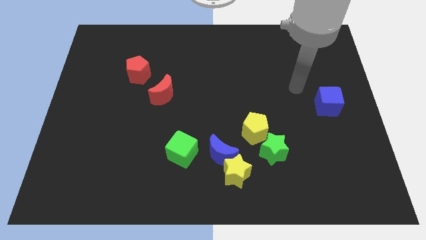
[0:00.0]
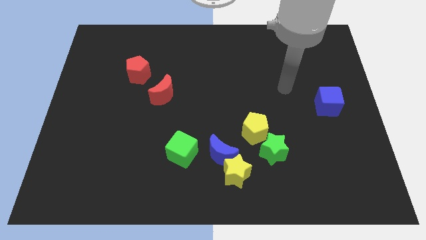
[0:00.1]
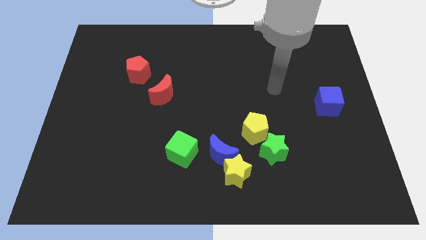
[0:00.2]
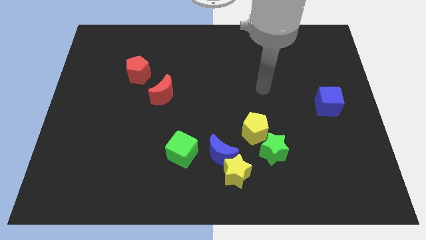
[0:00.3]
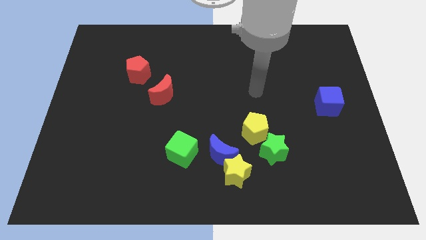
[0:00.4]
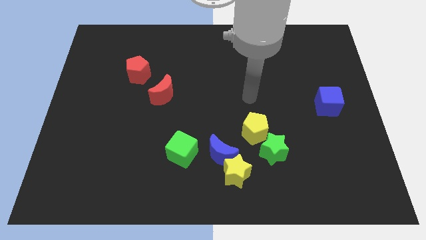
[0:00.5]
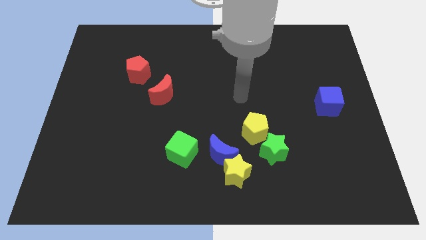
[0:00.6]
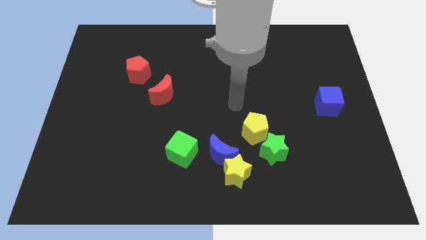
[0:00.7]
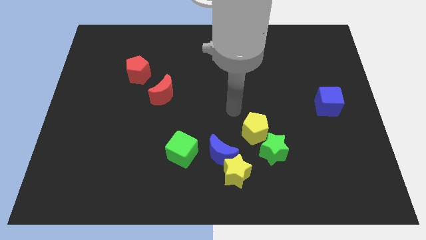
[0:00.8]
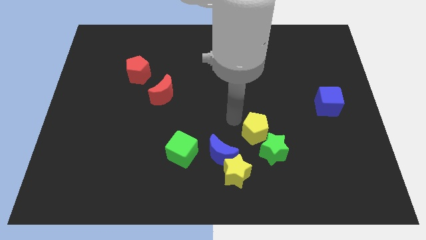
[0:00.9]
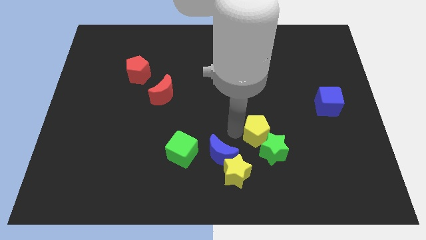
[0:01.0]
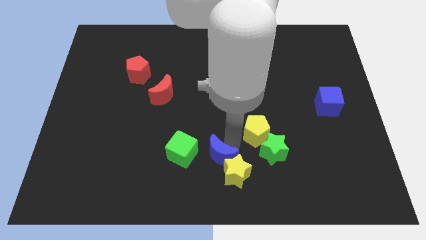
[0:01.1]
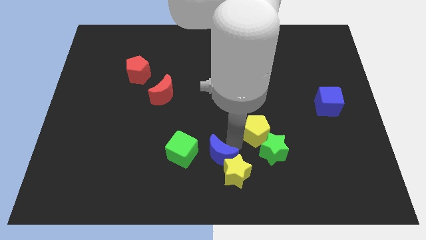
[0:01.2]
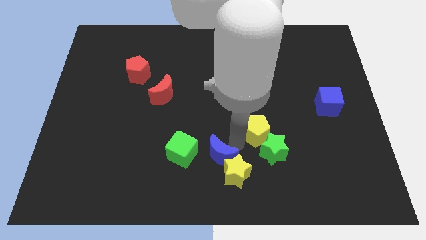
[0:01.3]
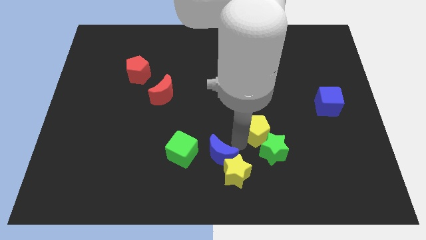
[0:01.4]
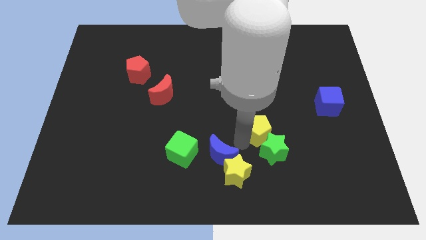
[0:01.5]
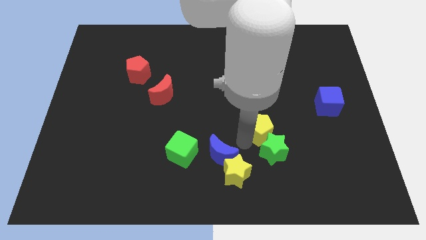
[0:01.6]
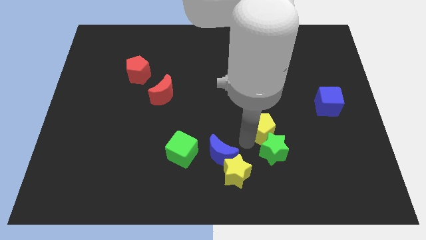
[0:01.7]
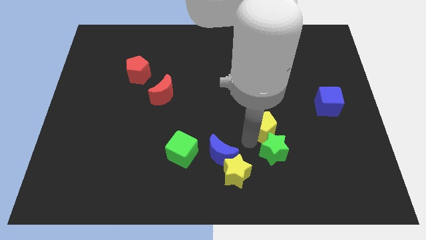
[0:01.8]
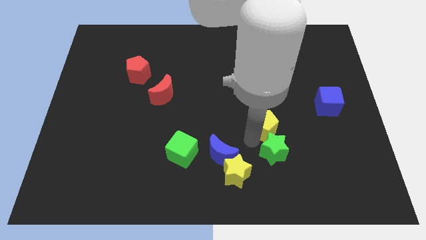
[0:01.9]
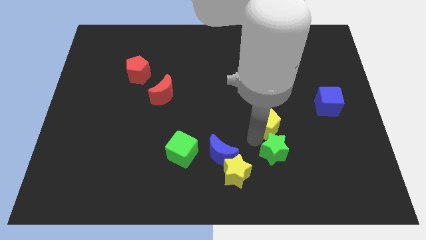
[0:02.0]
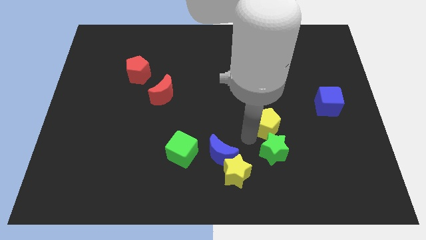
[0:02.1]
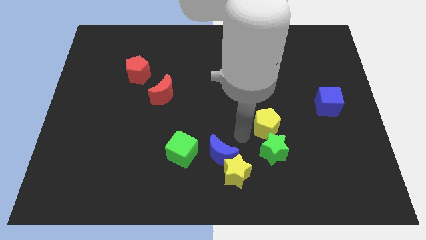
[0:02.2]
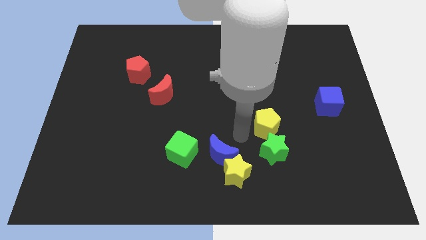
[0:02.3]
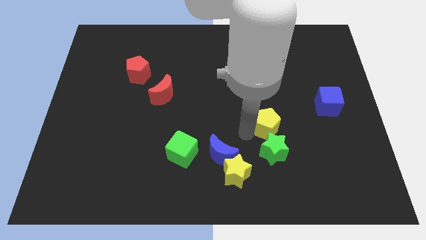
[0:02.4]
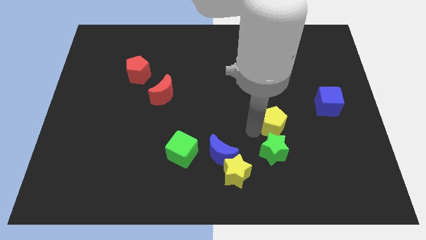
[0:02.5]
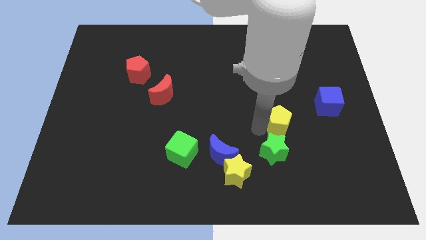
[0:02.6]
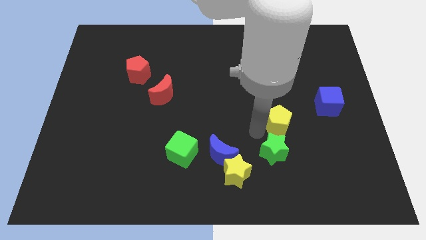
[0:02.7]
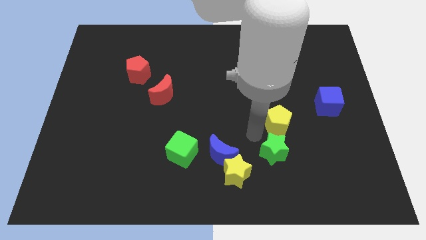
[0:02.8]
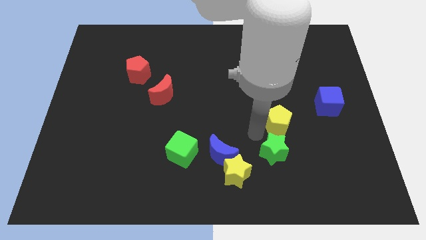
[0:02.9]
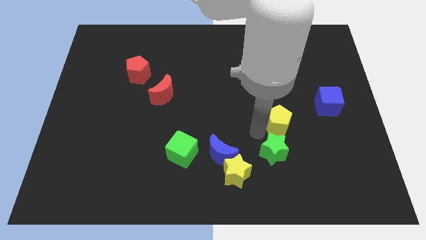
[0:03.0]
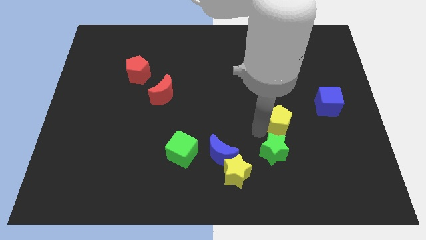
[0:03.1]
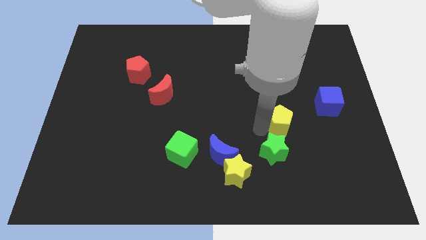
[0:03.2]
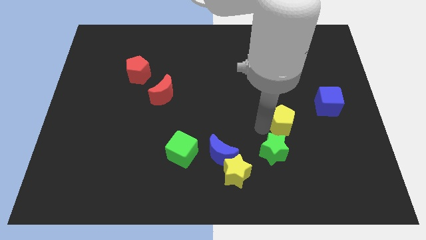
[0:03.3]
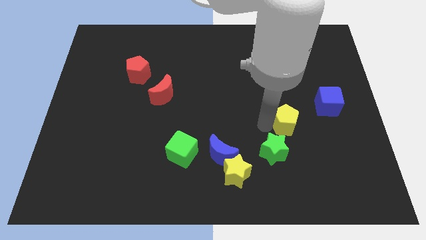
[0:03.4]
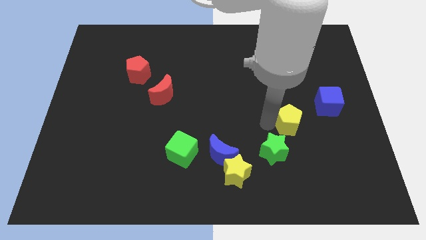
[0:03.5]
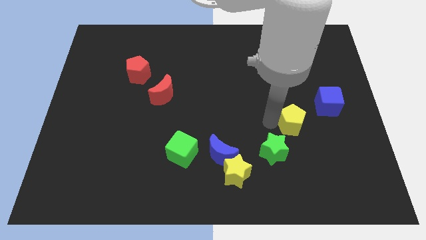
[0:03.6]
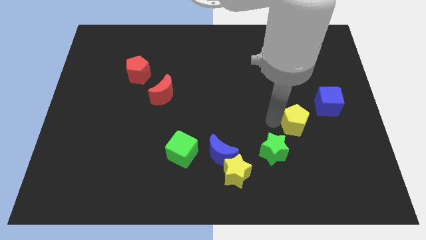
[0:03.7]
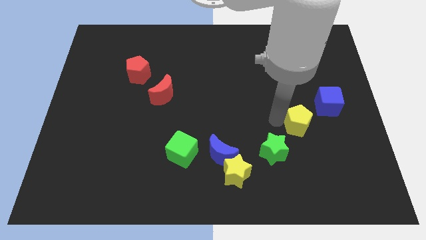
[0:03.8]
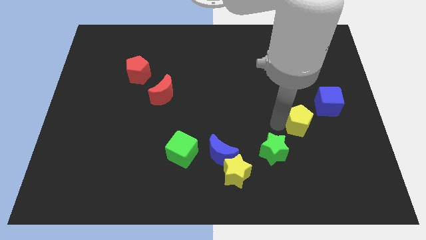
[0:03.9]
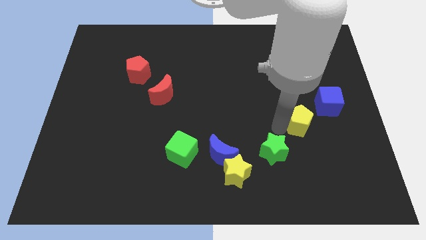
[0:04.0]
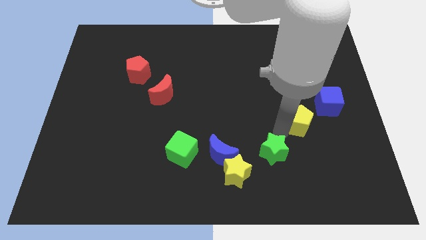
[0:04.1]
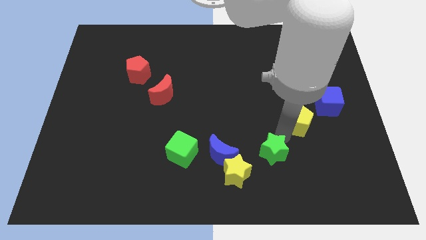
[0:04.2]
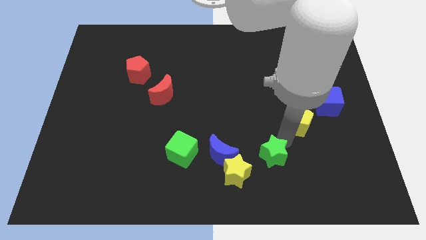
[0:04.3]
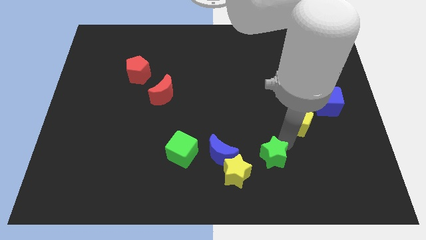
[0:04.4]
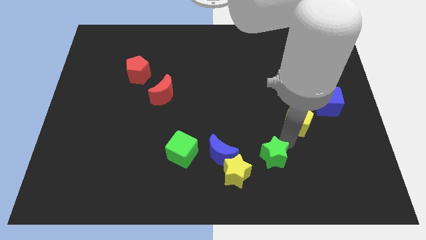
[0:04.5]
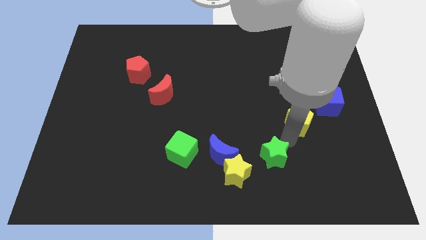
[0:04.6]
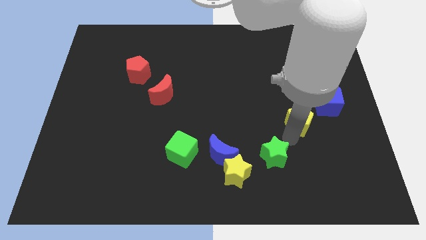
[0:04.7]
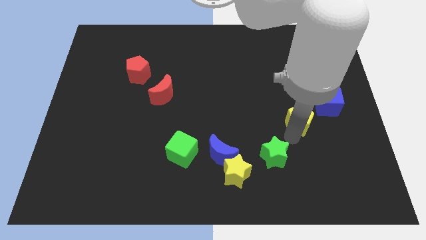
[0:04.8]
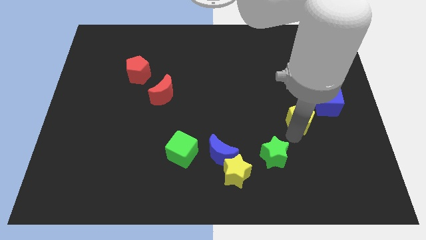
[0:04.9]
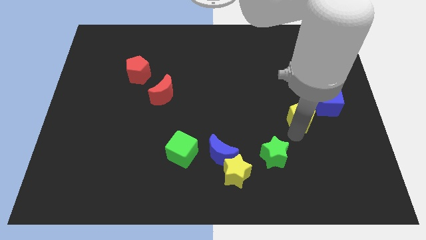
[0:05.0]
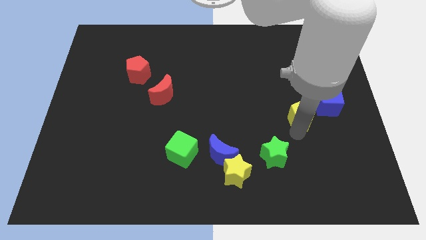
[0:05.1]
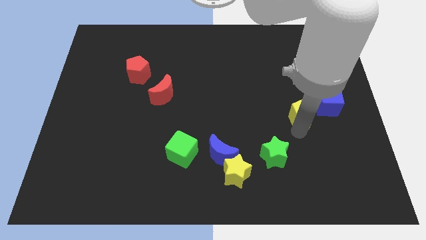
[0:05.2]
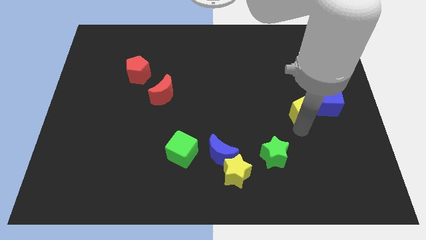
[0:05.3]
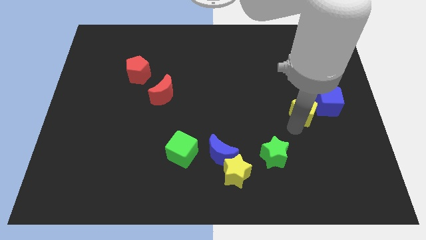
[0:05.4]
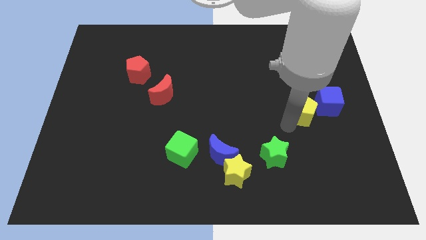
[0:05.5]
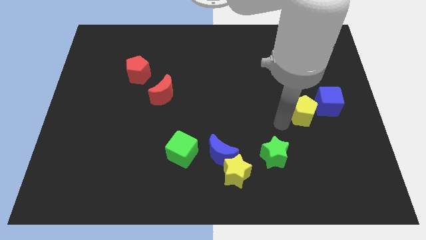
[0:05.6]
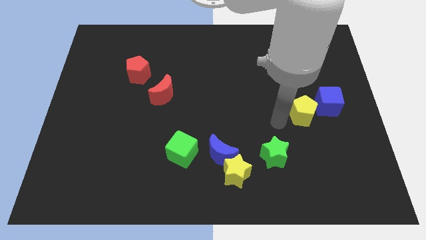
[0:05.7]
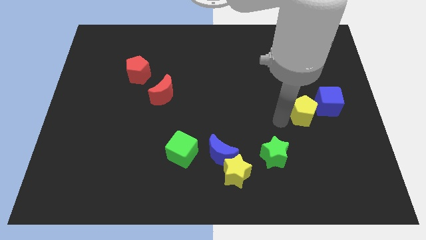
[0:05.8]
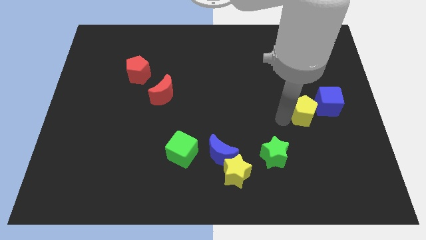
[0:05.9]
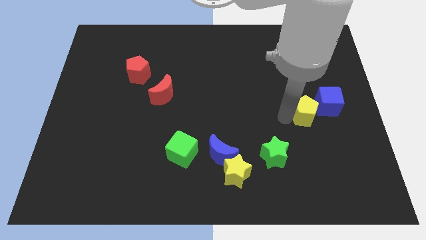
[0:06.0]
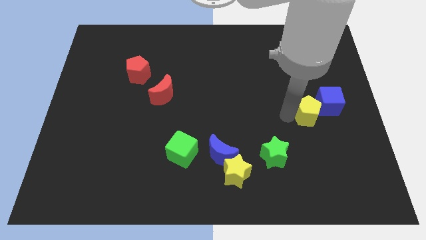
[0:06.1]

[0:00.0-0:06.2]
put the yellow pentagon next to the blue cube

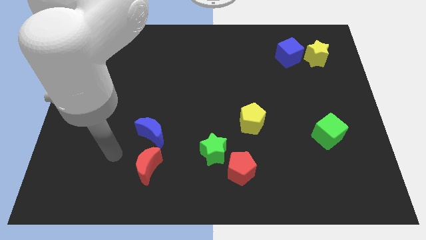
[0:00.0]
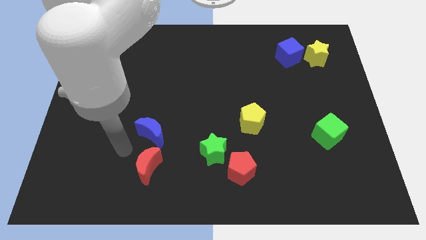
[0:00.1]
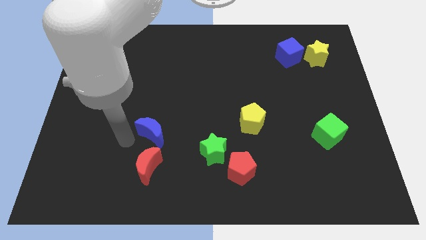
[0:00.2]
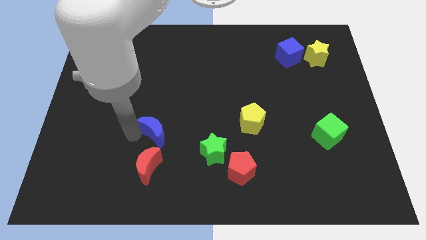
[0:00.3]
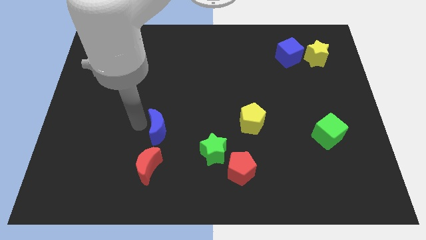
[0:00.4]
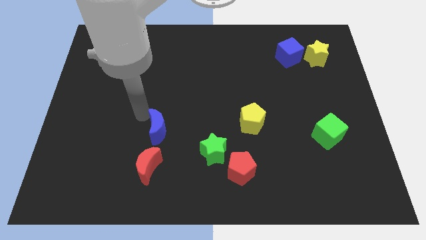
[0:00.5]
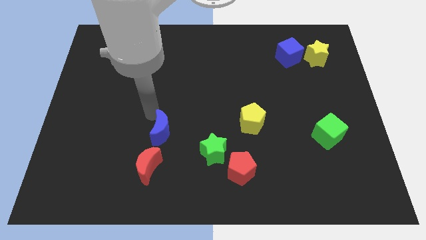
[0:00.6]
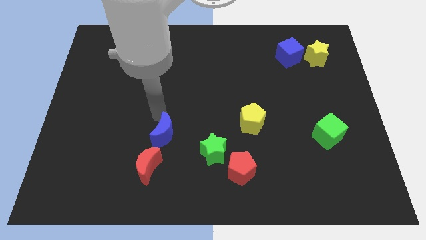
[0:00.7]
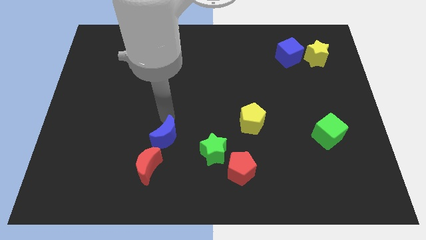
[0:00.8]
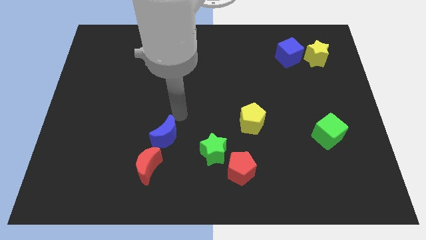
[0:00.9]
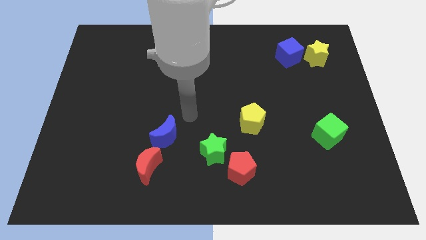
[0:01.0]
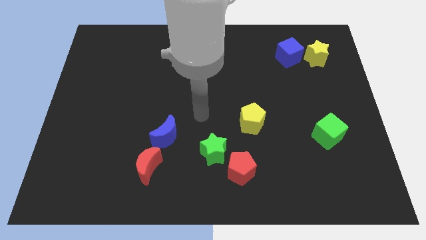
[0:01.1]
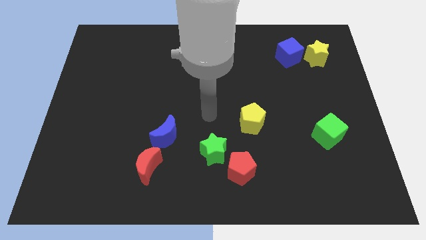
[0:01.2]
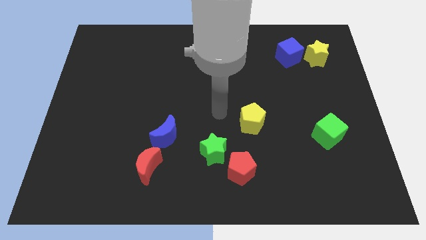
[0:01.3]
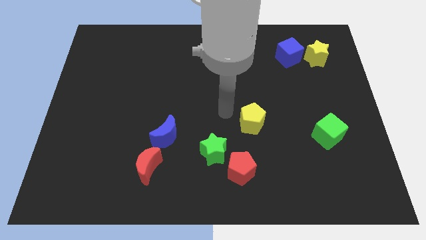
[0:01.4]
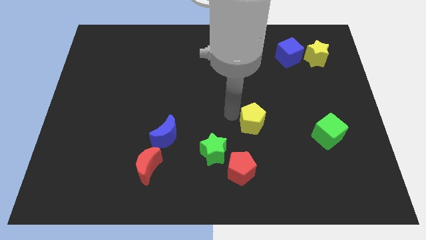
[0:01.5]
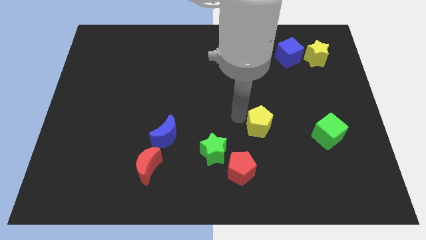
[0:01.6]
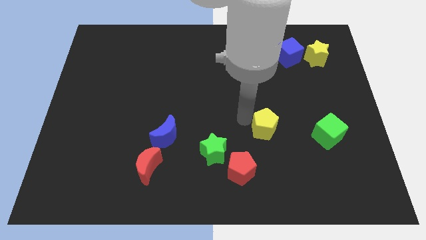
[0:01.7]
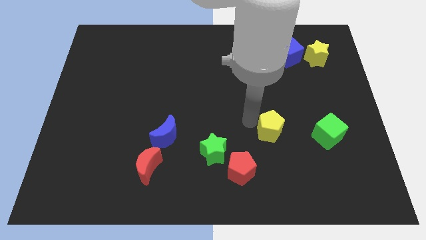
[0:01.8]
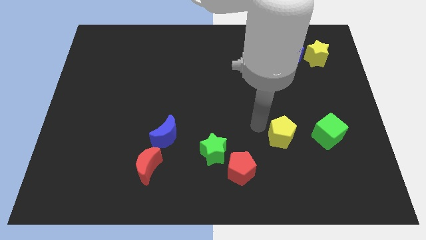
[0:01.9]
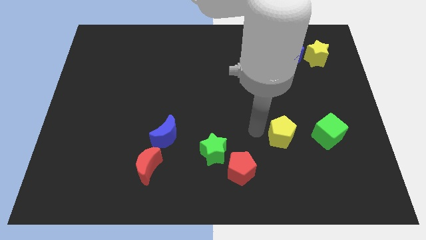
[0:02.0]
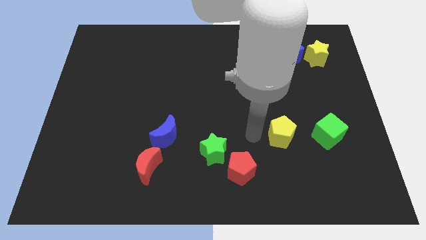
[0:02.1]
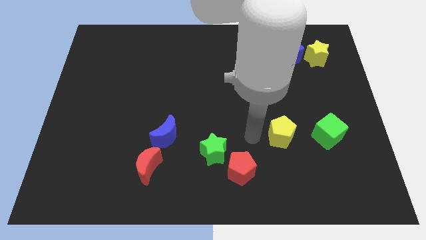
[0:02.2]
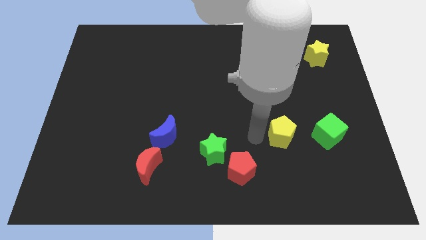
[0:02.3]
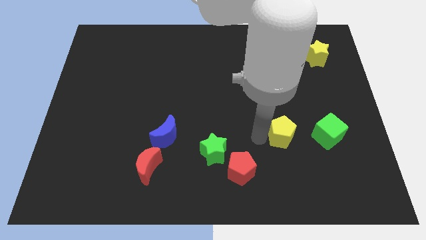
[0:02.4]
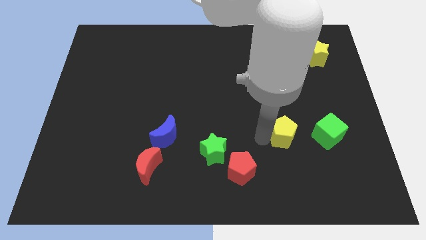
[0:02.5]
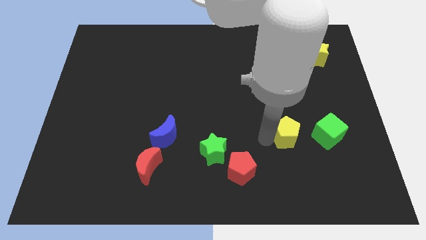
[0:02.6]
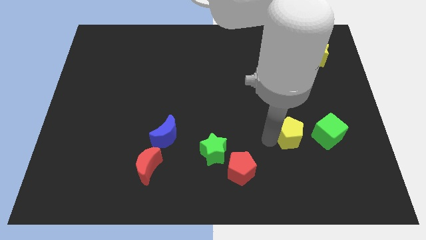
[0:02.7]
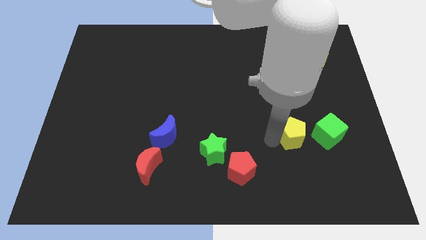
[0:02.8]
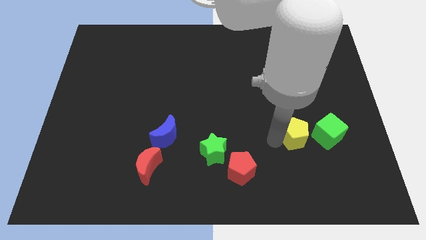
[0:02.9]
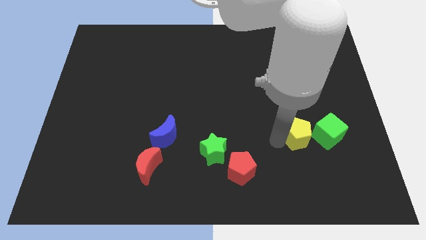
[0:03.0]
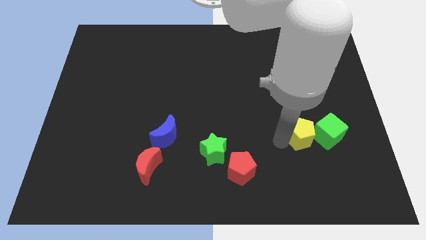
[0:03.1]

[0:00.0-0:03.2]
push the yellow pentagon to the green cube
